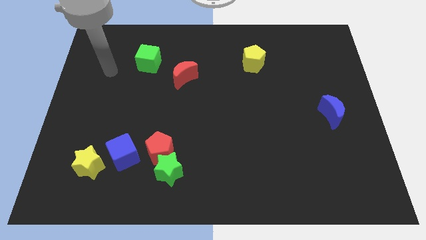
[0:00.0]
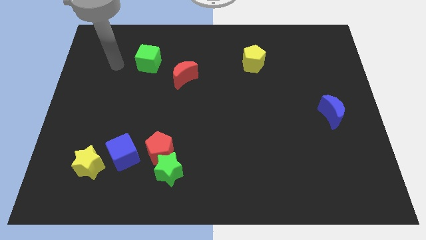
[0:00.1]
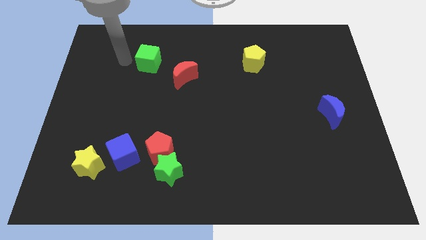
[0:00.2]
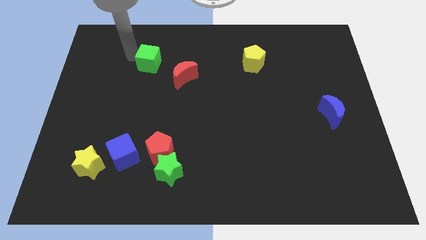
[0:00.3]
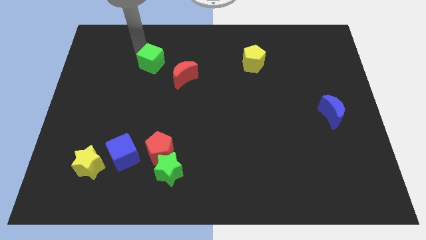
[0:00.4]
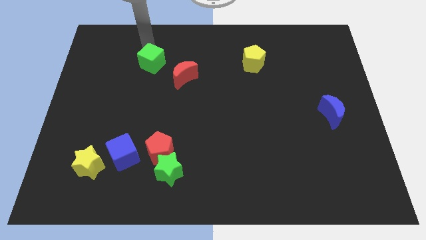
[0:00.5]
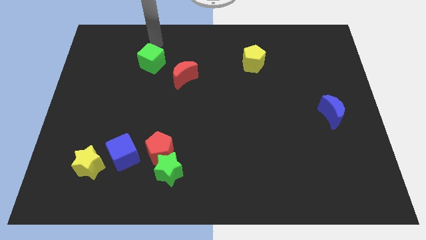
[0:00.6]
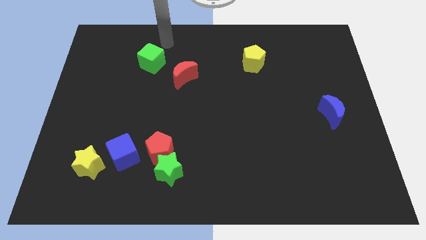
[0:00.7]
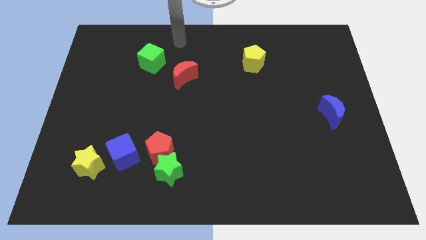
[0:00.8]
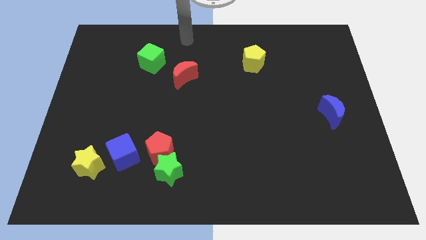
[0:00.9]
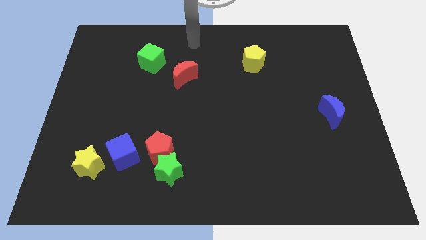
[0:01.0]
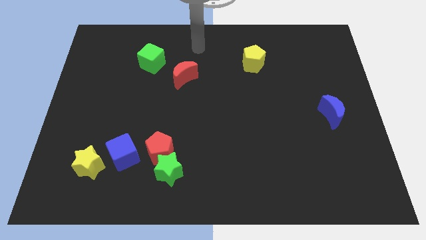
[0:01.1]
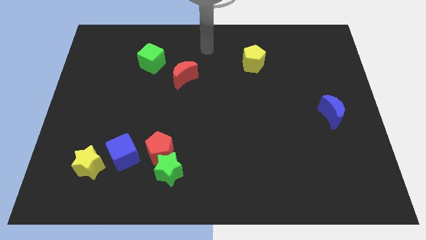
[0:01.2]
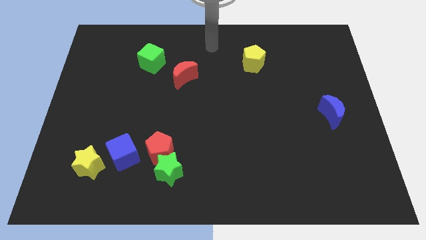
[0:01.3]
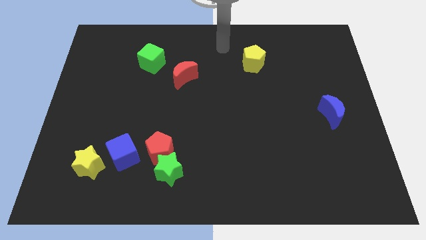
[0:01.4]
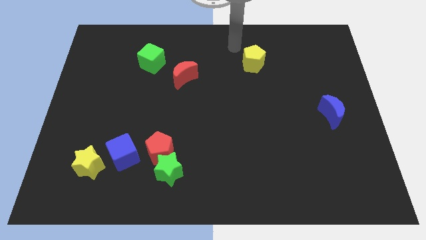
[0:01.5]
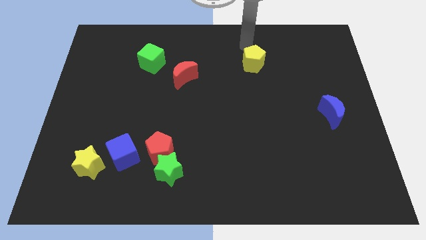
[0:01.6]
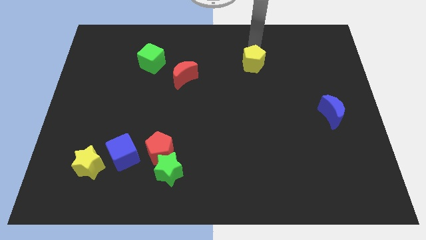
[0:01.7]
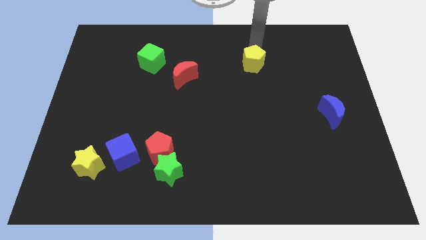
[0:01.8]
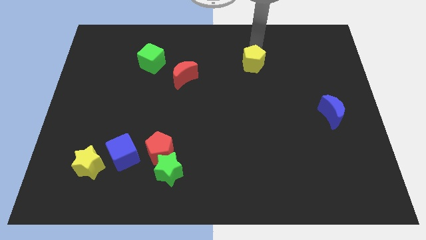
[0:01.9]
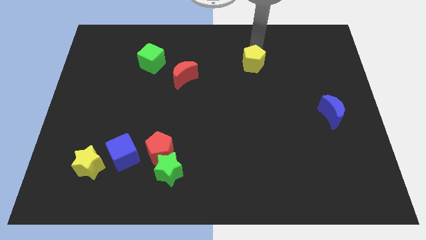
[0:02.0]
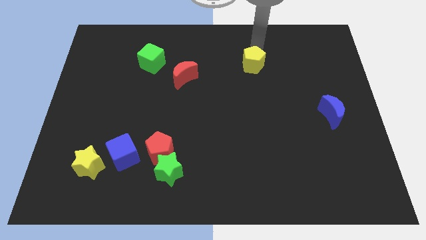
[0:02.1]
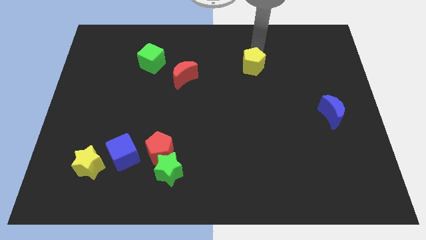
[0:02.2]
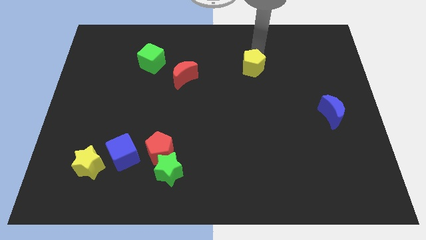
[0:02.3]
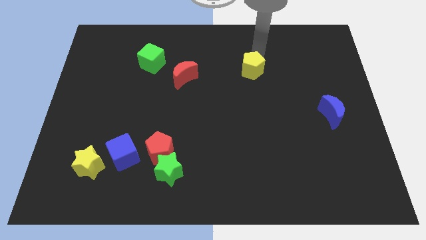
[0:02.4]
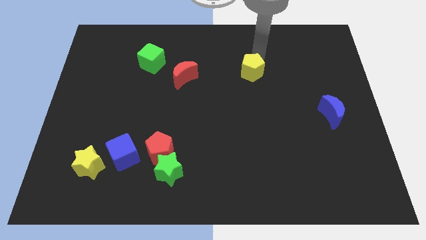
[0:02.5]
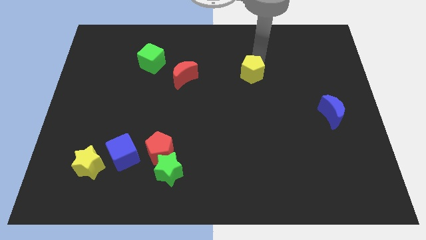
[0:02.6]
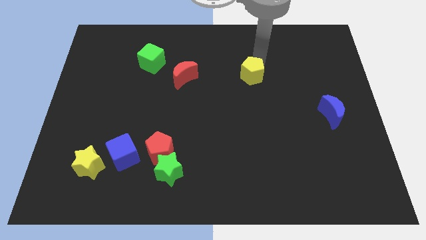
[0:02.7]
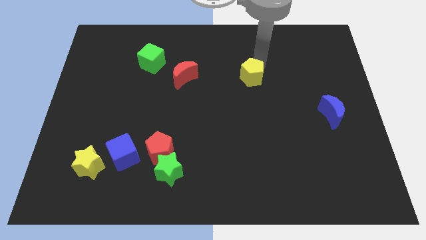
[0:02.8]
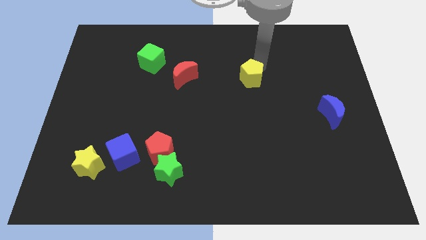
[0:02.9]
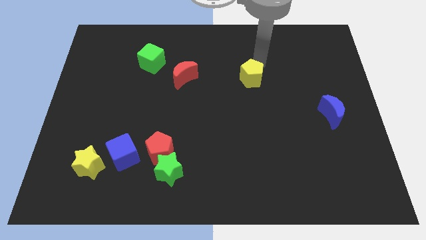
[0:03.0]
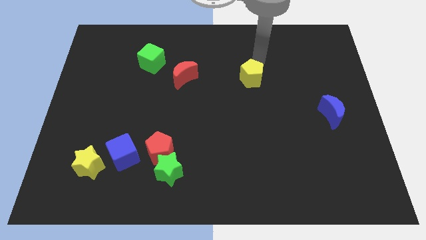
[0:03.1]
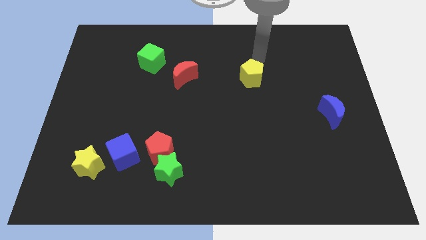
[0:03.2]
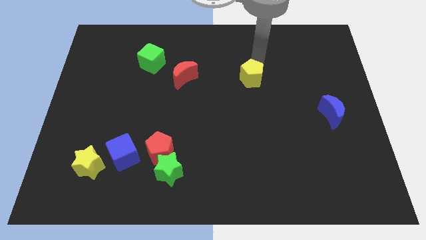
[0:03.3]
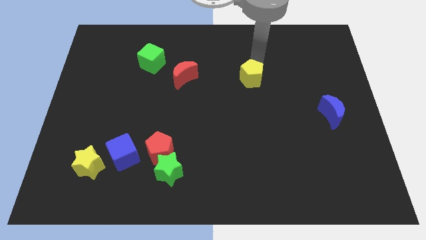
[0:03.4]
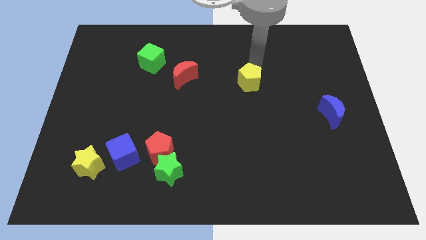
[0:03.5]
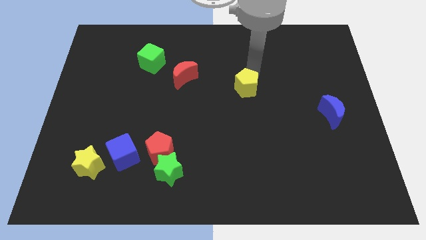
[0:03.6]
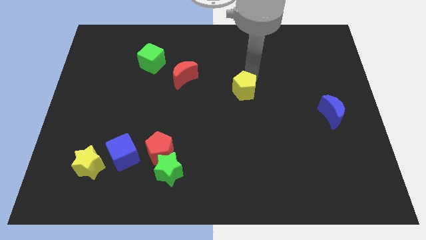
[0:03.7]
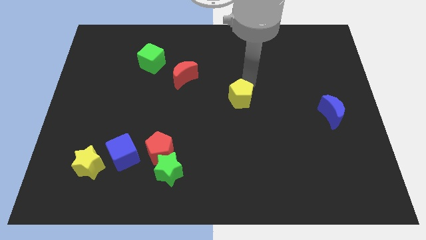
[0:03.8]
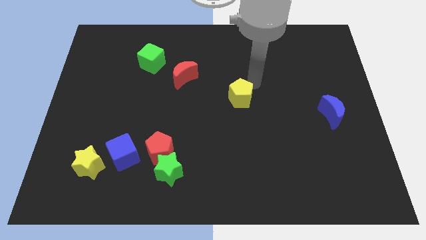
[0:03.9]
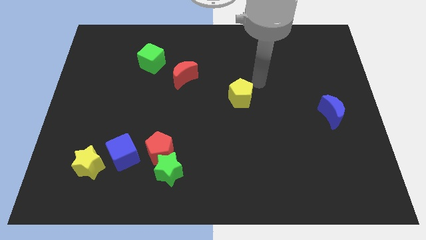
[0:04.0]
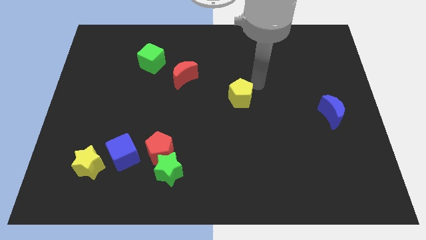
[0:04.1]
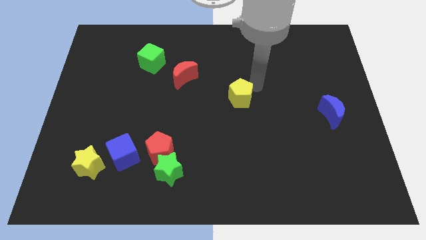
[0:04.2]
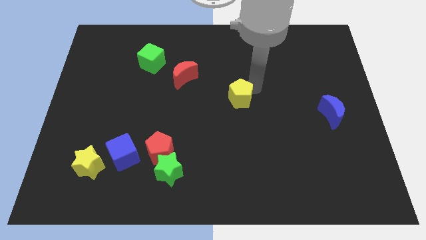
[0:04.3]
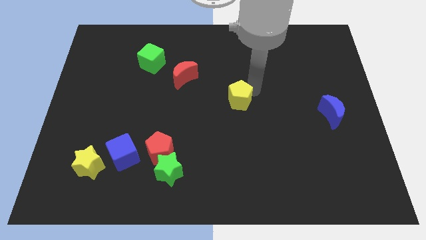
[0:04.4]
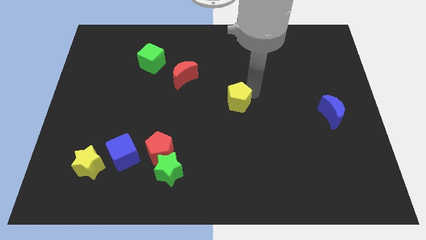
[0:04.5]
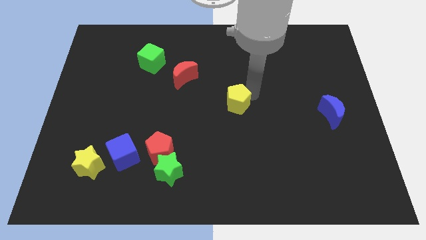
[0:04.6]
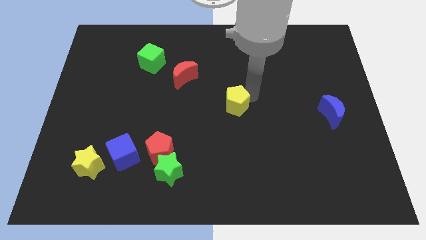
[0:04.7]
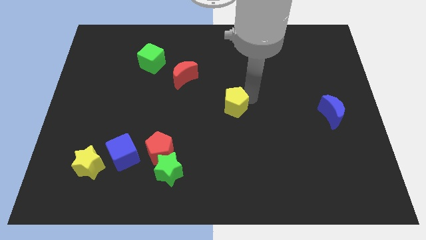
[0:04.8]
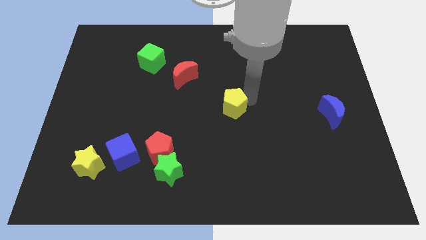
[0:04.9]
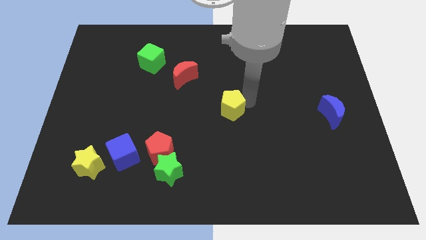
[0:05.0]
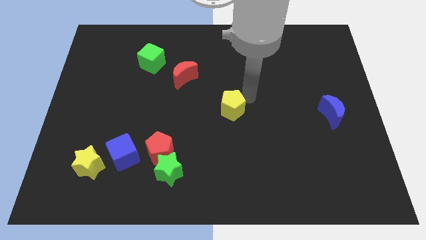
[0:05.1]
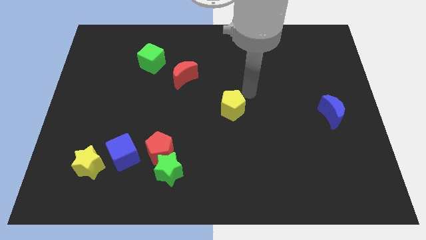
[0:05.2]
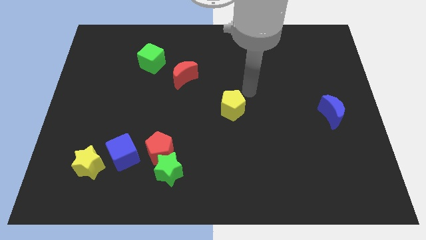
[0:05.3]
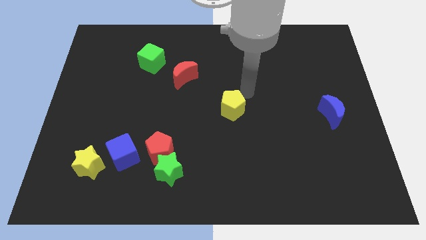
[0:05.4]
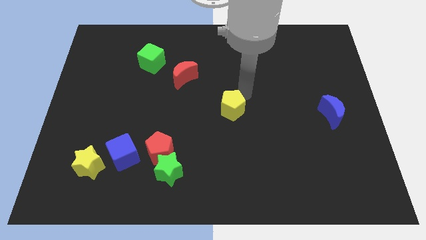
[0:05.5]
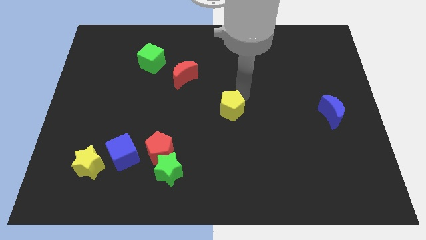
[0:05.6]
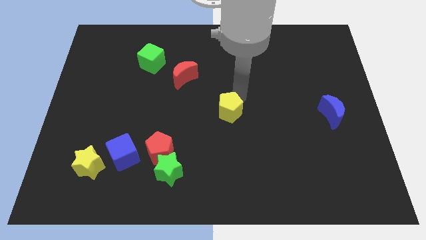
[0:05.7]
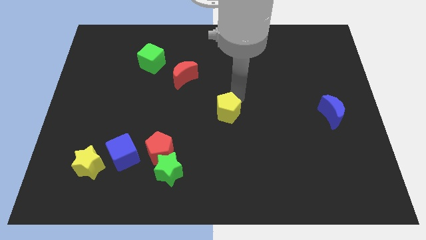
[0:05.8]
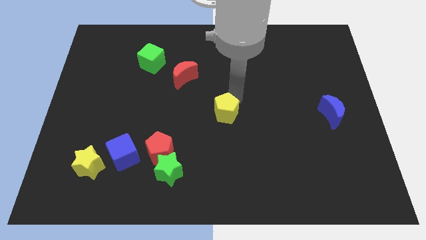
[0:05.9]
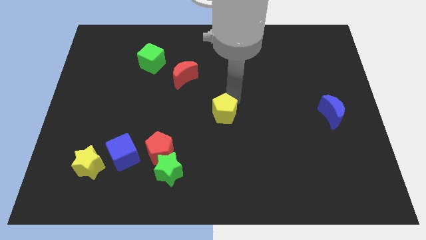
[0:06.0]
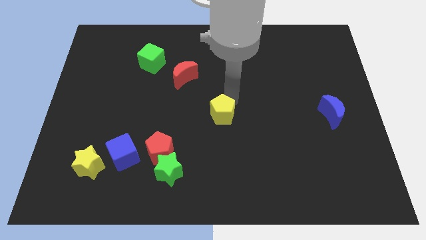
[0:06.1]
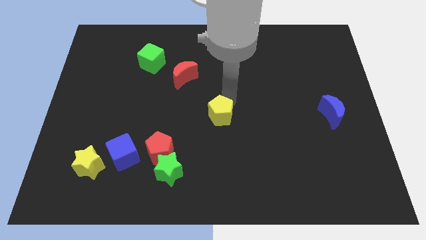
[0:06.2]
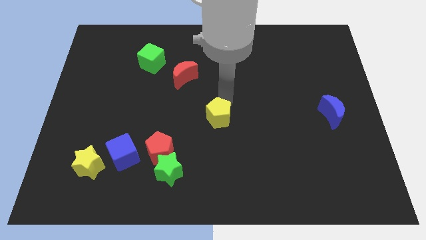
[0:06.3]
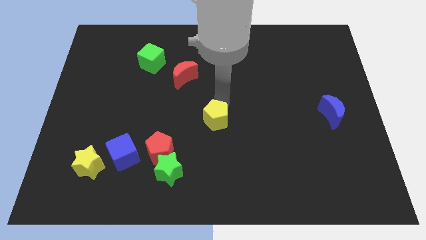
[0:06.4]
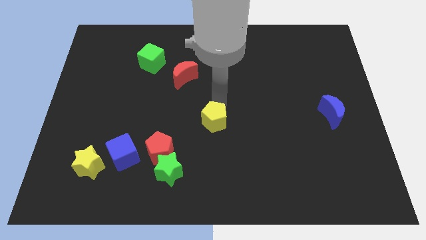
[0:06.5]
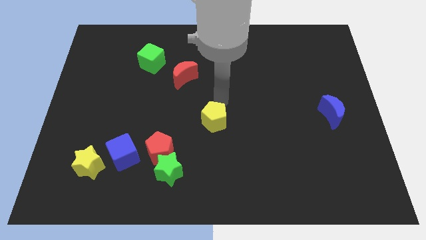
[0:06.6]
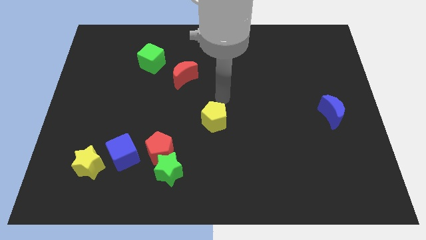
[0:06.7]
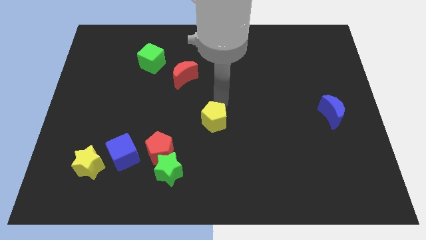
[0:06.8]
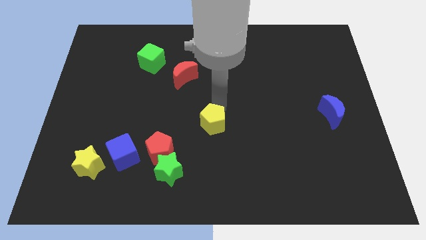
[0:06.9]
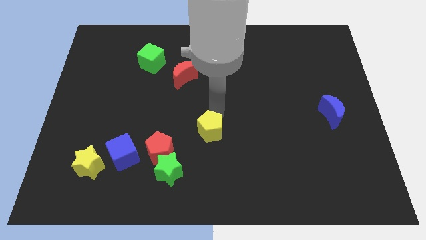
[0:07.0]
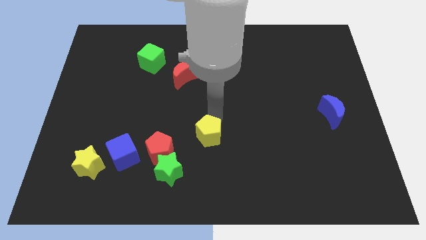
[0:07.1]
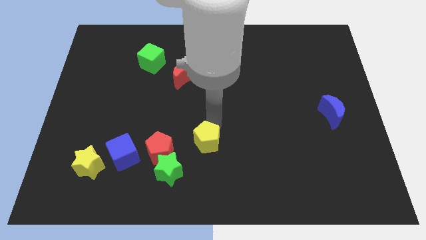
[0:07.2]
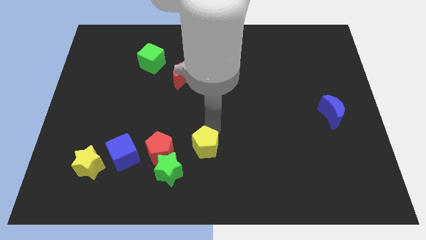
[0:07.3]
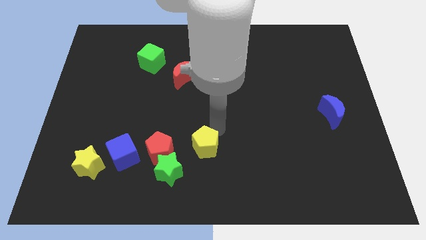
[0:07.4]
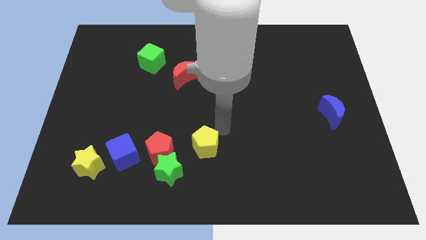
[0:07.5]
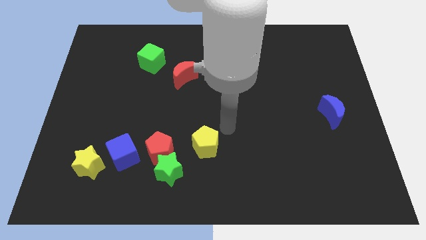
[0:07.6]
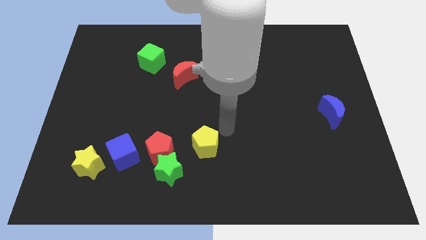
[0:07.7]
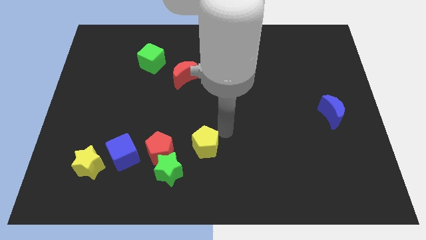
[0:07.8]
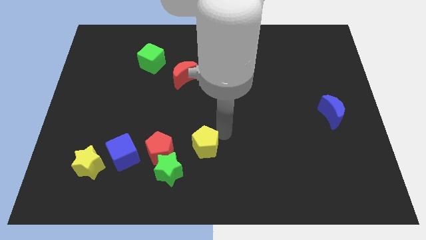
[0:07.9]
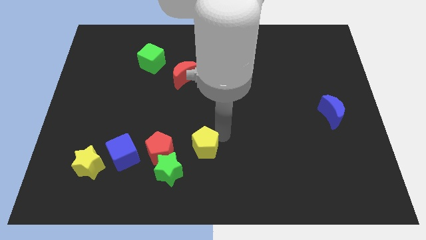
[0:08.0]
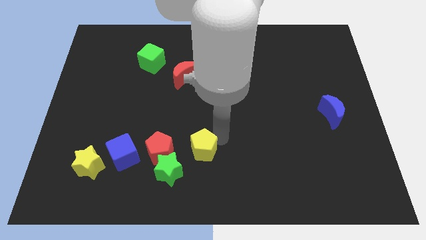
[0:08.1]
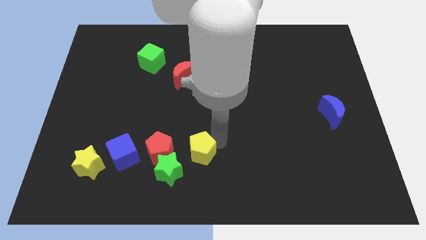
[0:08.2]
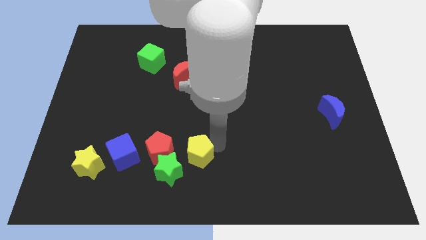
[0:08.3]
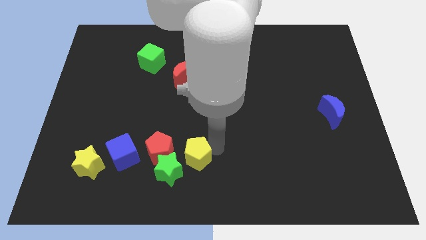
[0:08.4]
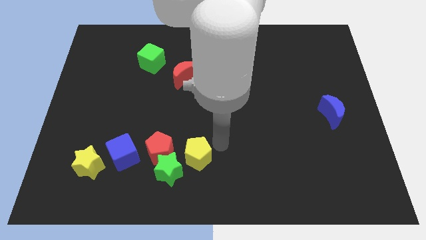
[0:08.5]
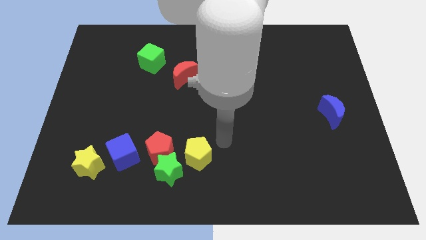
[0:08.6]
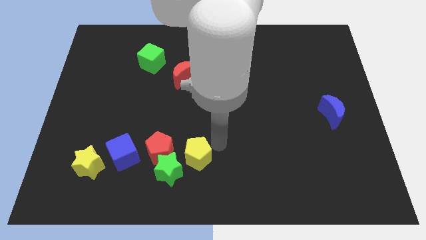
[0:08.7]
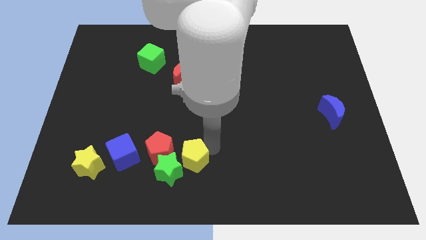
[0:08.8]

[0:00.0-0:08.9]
put the yellow pentagon towards the green star
